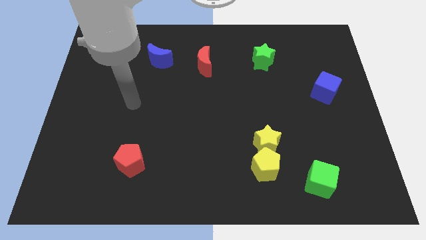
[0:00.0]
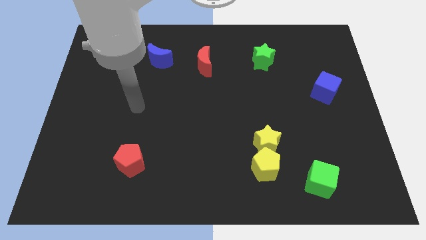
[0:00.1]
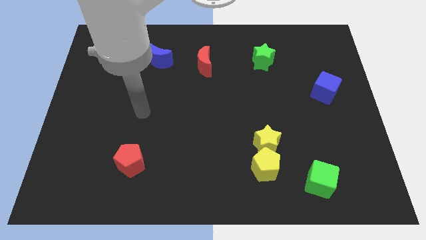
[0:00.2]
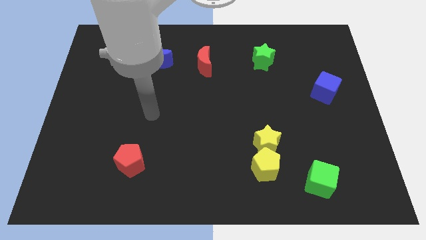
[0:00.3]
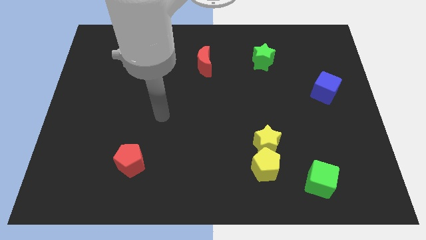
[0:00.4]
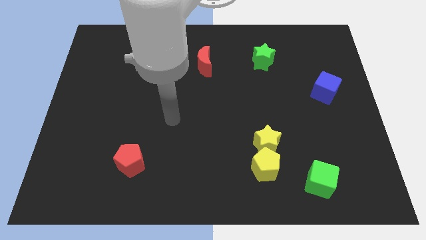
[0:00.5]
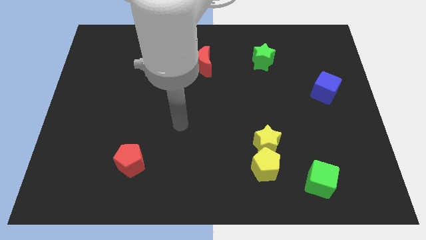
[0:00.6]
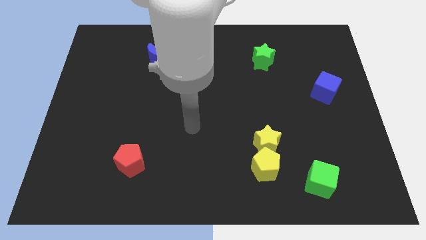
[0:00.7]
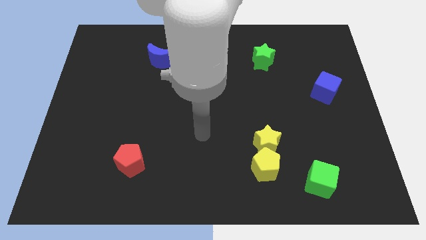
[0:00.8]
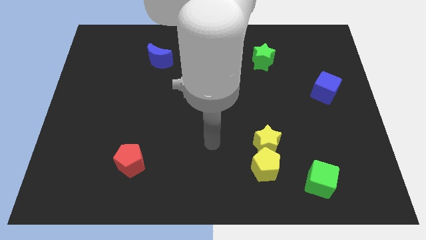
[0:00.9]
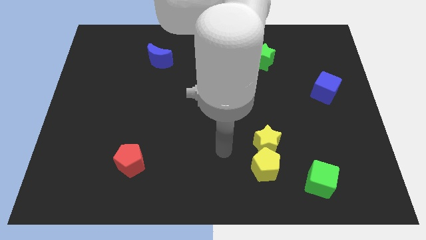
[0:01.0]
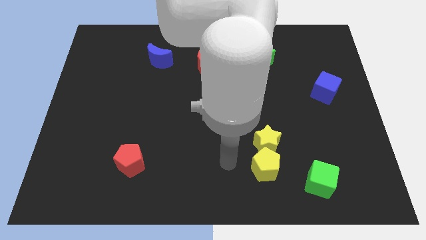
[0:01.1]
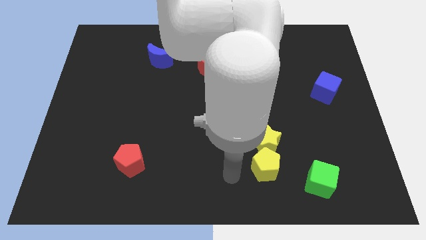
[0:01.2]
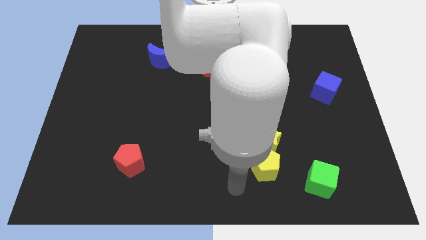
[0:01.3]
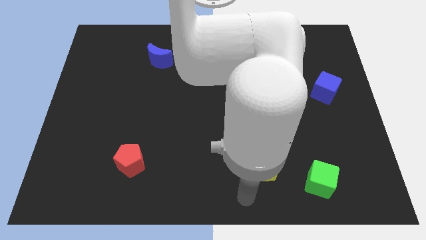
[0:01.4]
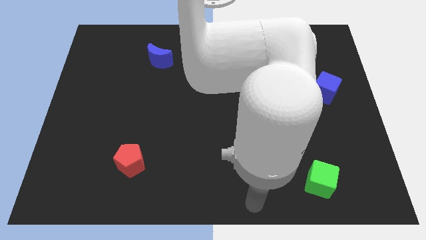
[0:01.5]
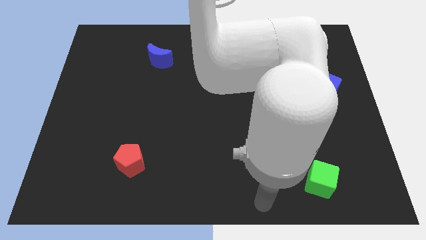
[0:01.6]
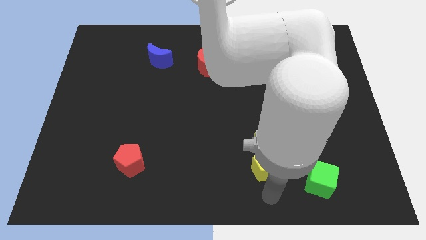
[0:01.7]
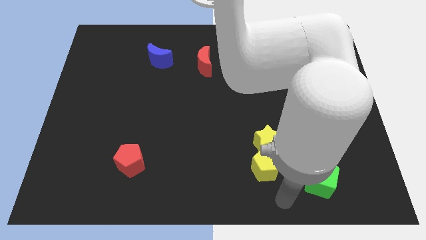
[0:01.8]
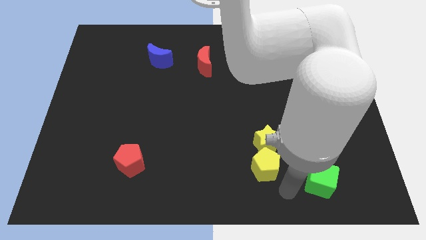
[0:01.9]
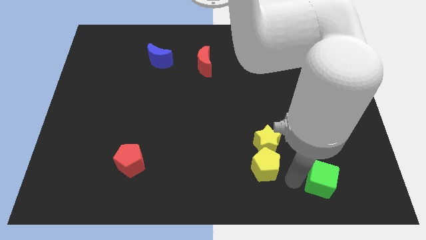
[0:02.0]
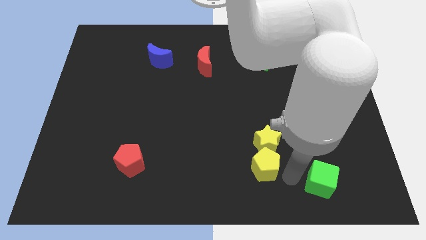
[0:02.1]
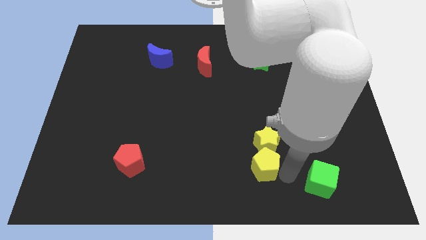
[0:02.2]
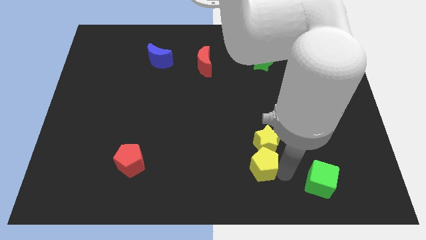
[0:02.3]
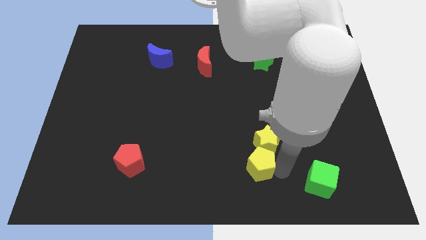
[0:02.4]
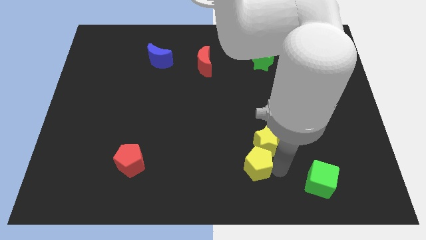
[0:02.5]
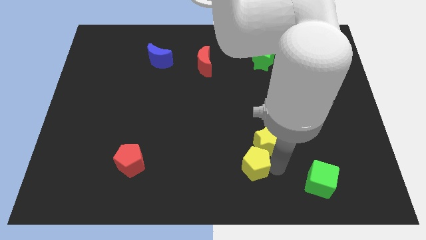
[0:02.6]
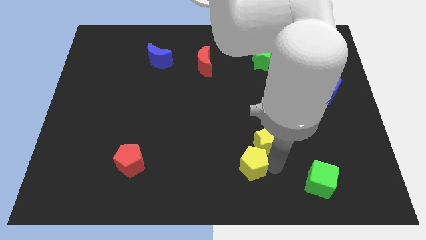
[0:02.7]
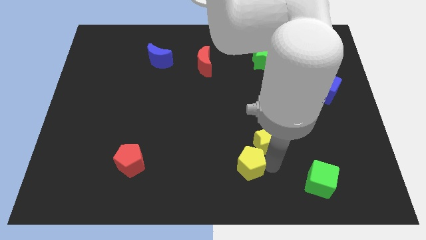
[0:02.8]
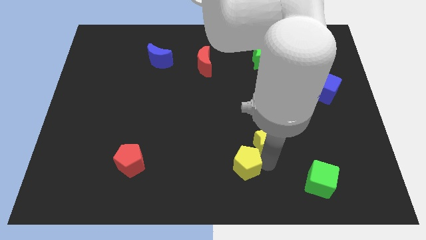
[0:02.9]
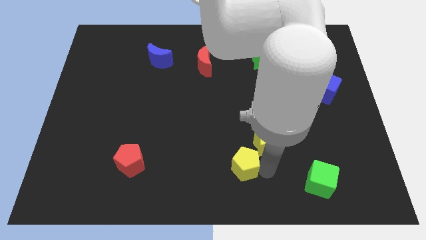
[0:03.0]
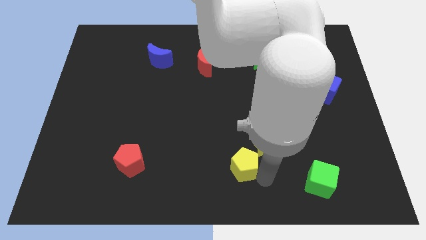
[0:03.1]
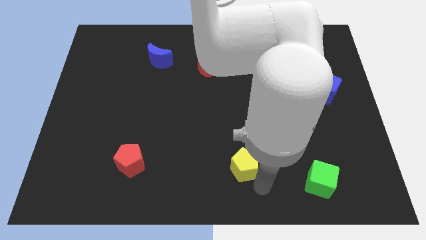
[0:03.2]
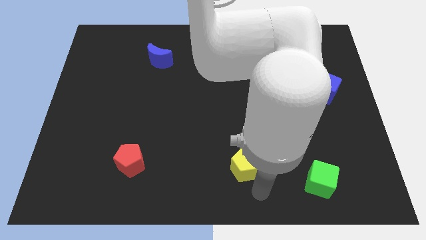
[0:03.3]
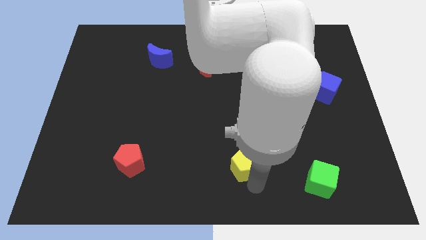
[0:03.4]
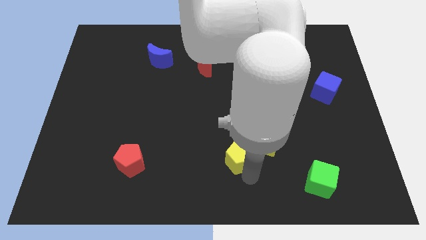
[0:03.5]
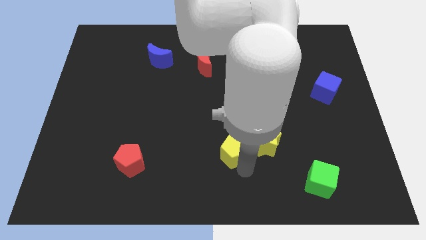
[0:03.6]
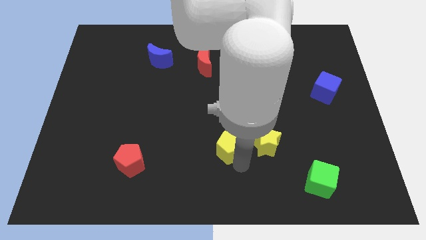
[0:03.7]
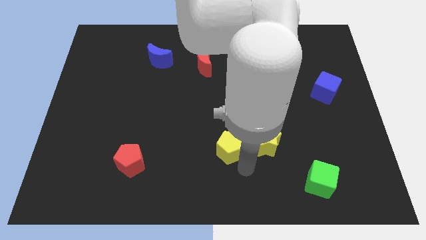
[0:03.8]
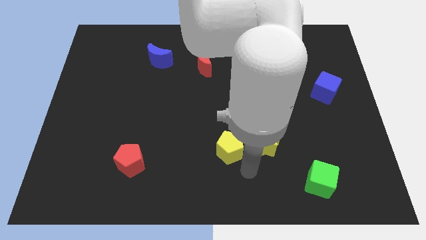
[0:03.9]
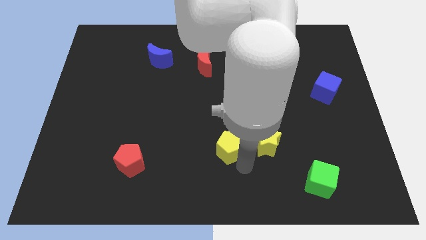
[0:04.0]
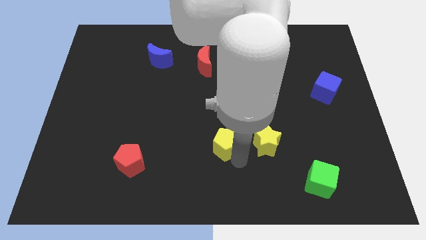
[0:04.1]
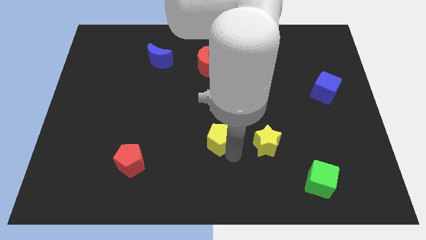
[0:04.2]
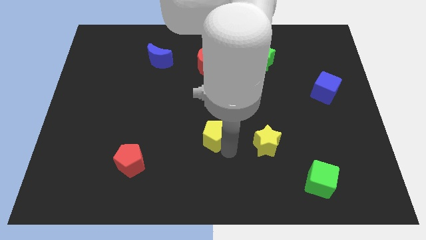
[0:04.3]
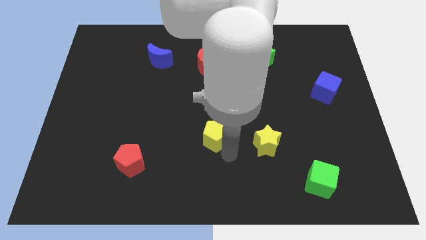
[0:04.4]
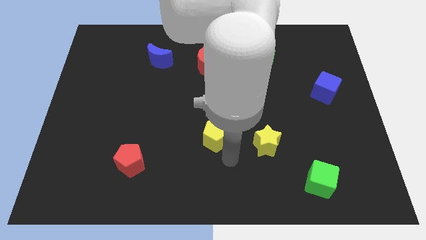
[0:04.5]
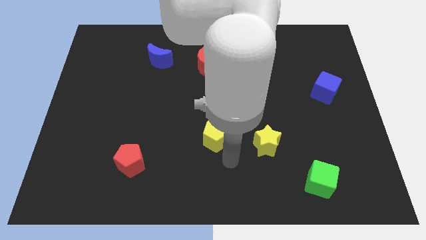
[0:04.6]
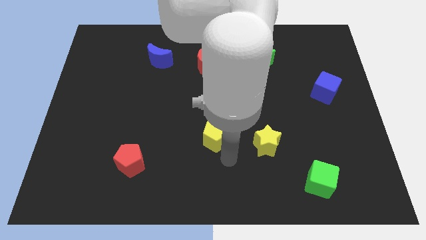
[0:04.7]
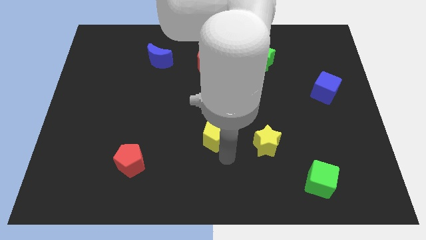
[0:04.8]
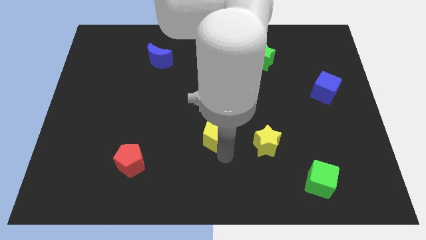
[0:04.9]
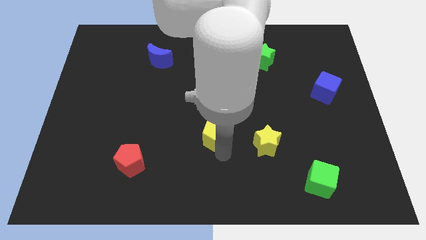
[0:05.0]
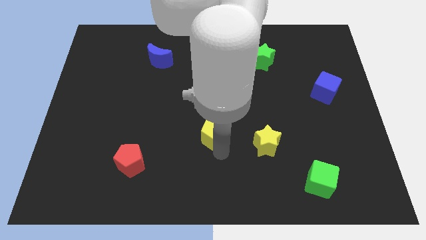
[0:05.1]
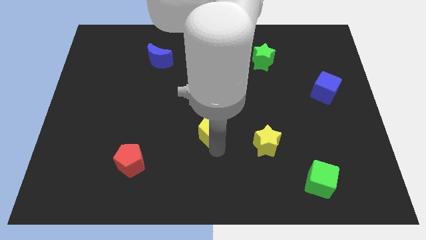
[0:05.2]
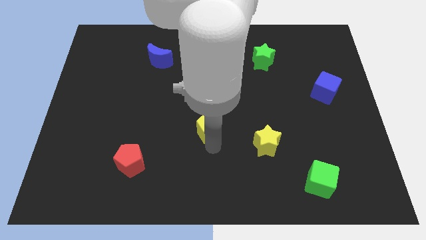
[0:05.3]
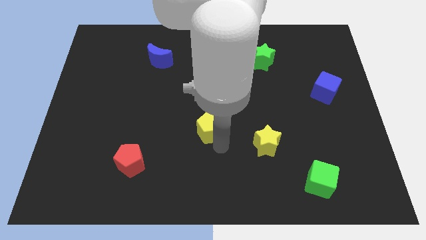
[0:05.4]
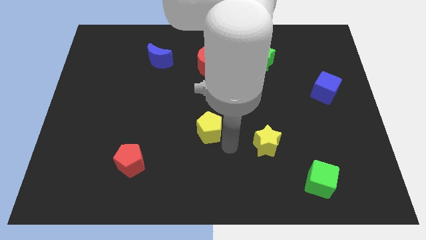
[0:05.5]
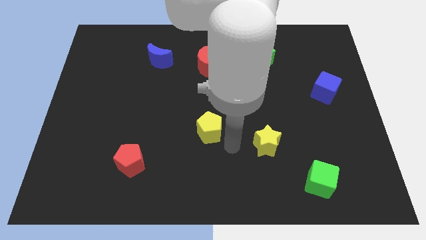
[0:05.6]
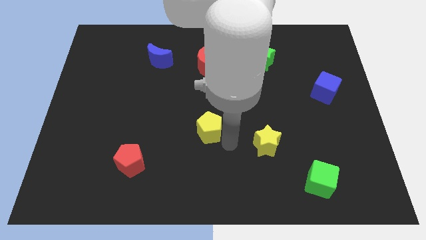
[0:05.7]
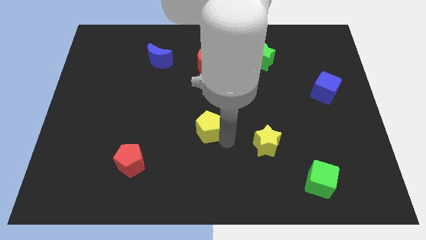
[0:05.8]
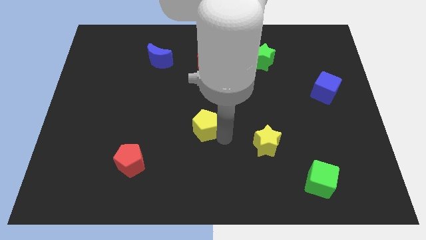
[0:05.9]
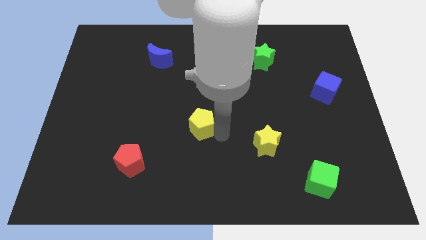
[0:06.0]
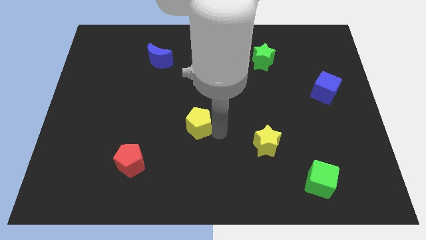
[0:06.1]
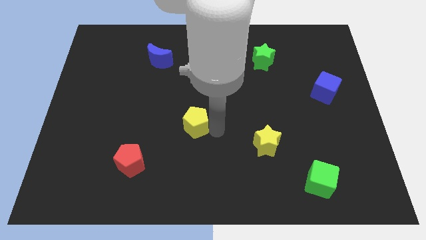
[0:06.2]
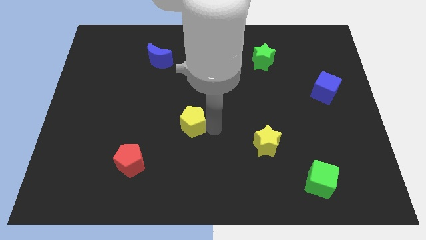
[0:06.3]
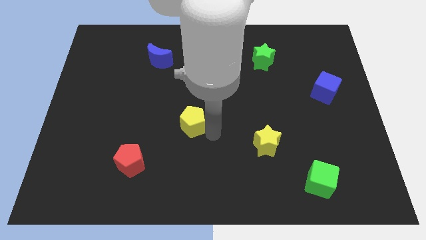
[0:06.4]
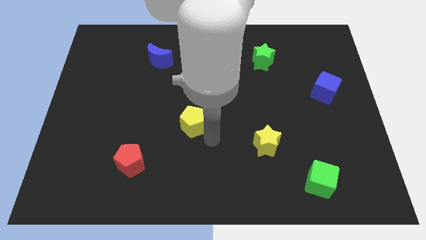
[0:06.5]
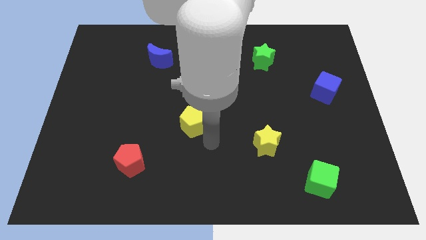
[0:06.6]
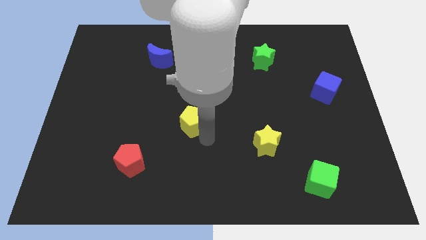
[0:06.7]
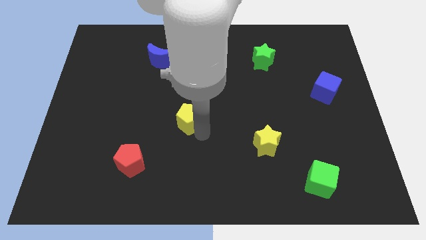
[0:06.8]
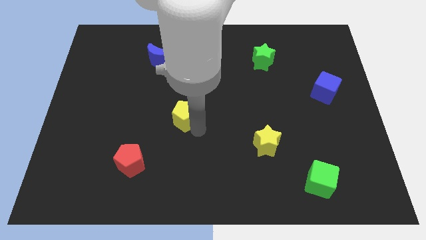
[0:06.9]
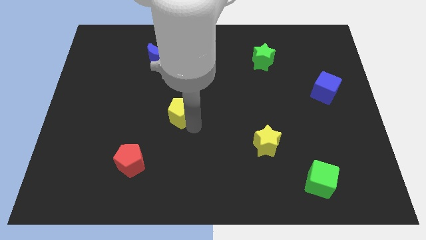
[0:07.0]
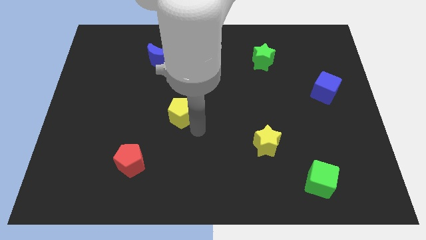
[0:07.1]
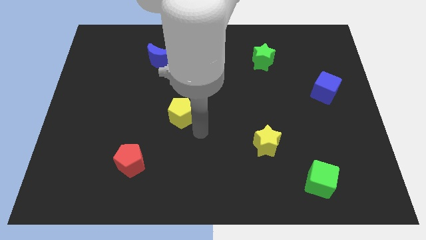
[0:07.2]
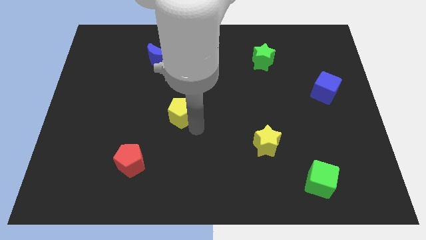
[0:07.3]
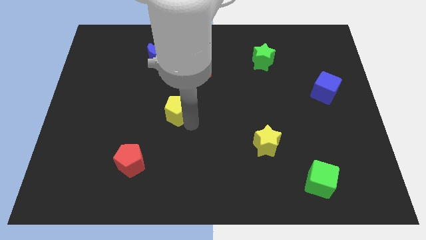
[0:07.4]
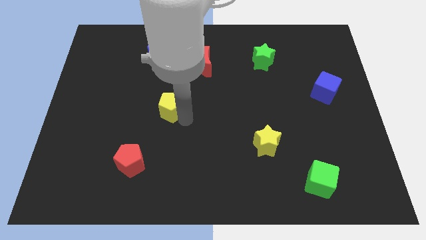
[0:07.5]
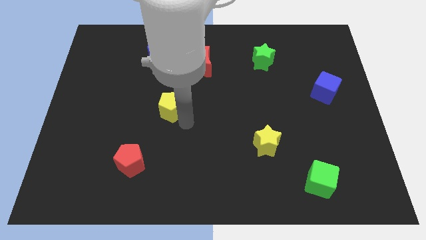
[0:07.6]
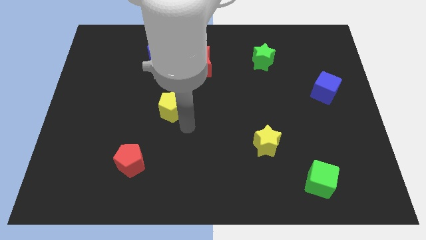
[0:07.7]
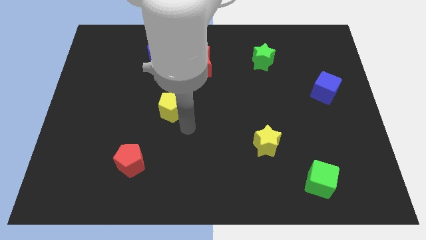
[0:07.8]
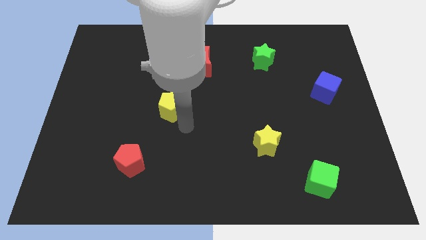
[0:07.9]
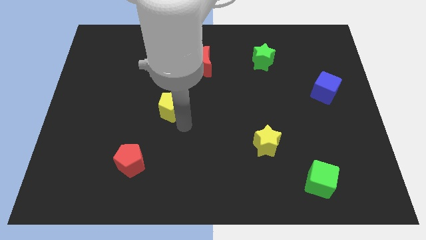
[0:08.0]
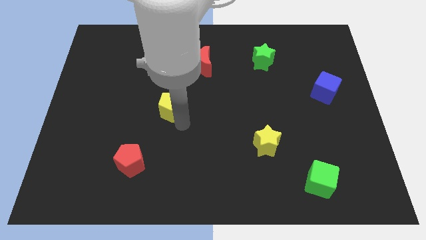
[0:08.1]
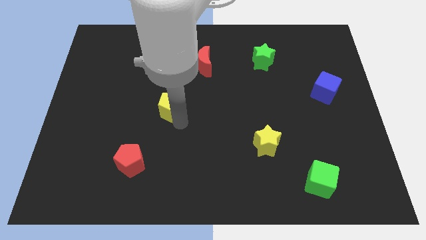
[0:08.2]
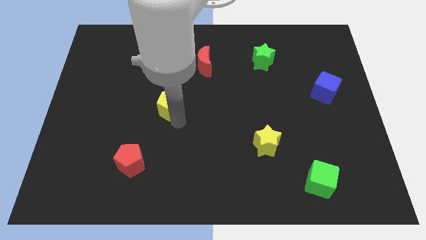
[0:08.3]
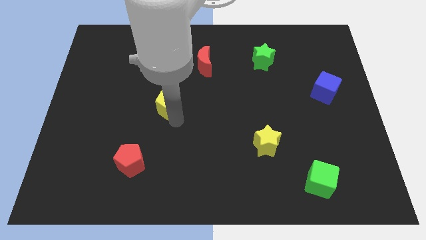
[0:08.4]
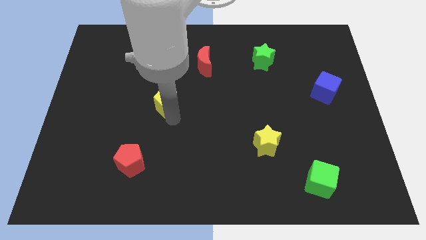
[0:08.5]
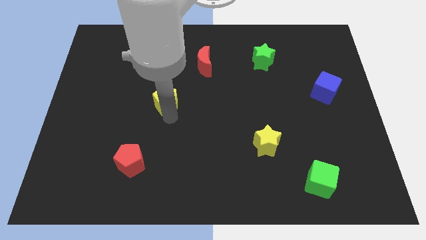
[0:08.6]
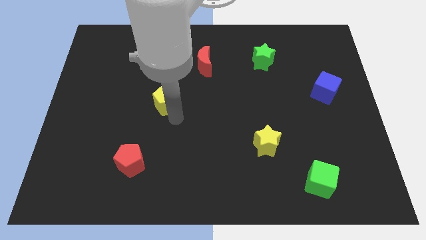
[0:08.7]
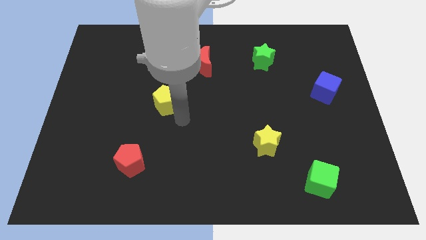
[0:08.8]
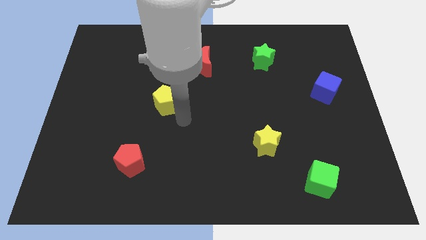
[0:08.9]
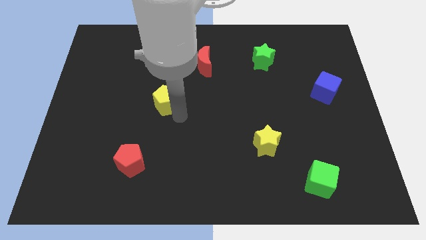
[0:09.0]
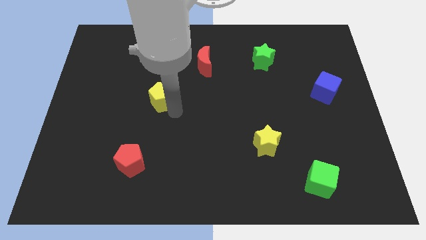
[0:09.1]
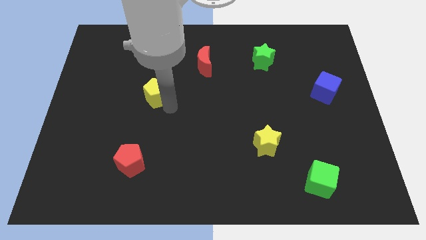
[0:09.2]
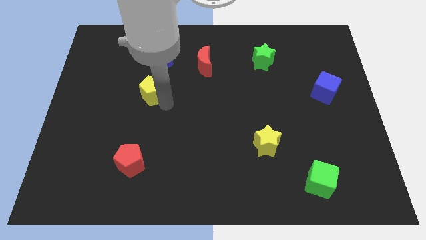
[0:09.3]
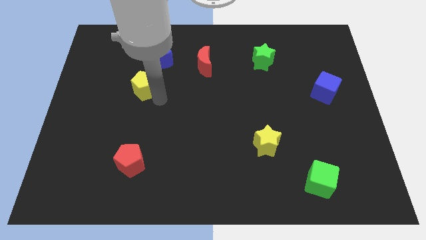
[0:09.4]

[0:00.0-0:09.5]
push the yellow pentagon diagonally down and to the left of the blue moon
